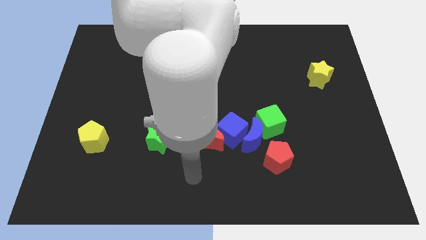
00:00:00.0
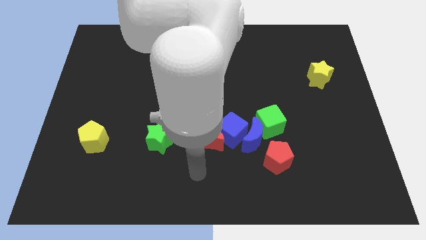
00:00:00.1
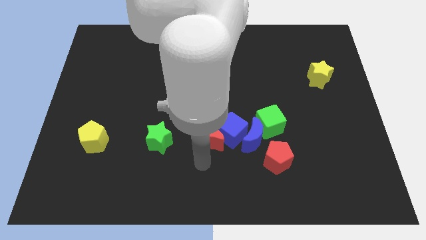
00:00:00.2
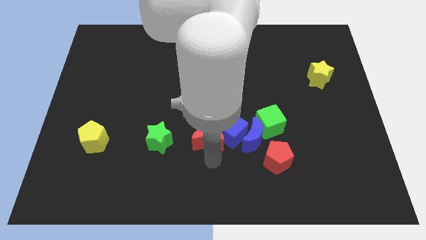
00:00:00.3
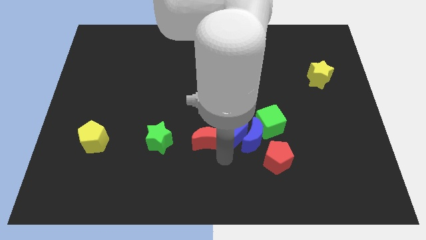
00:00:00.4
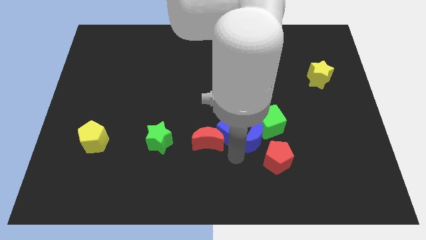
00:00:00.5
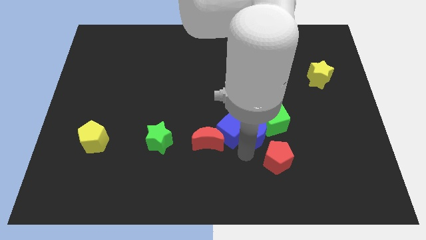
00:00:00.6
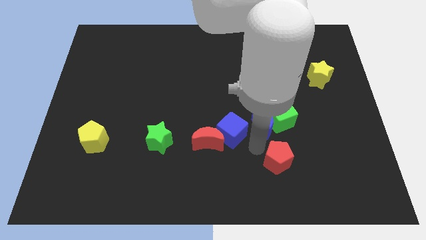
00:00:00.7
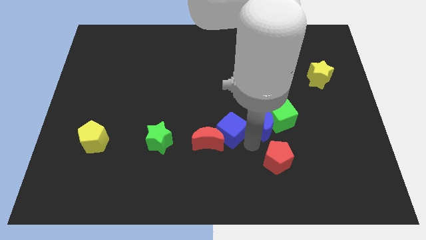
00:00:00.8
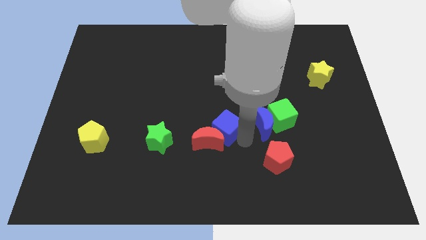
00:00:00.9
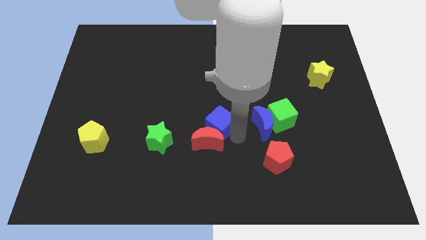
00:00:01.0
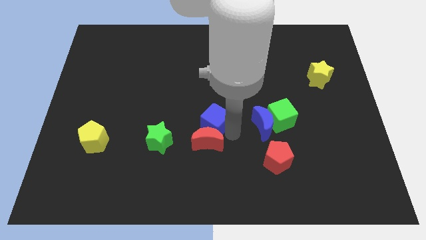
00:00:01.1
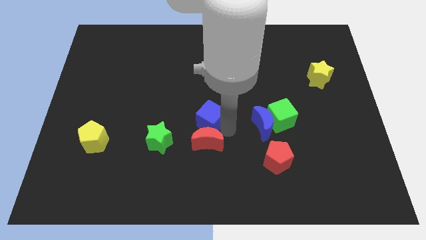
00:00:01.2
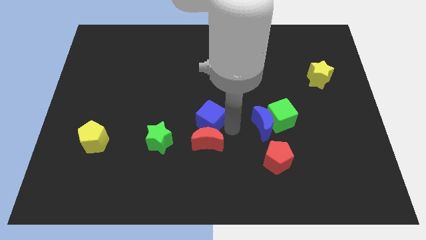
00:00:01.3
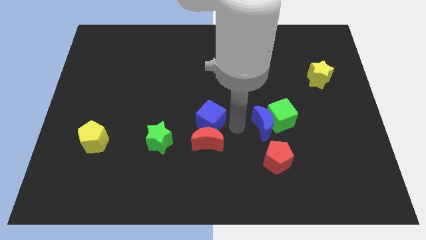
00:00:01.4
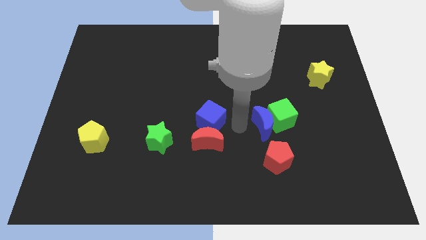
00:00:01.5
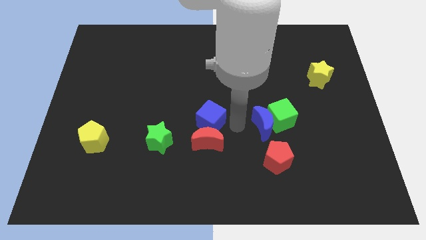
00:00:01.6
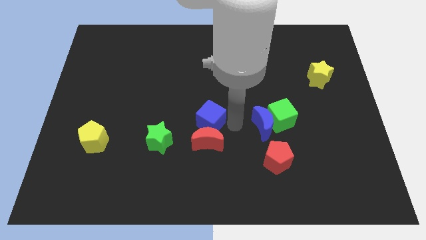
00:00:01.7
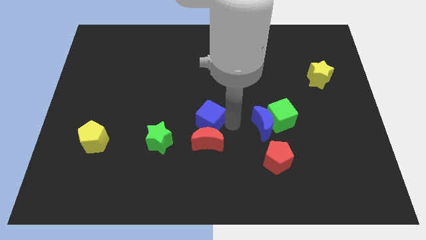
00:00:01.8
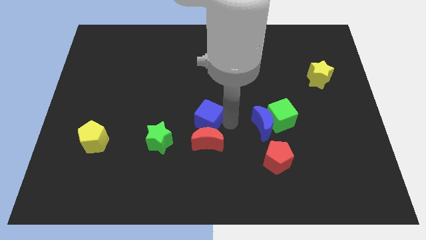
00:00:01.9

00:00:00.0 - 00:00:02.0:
separate the blue cube from the group of blocks

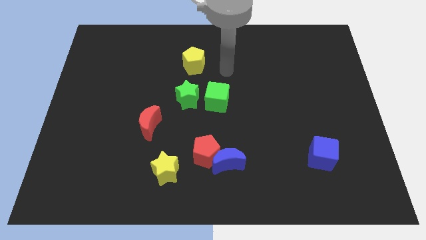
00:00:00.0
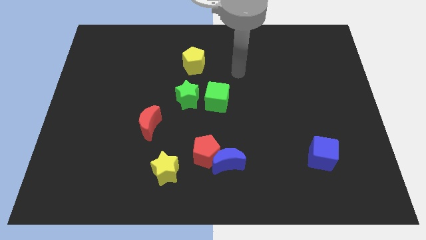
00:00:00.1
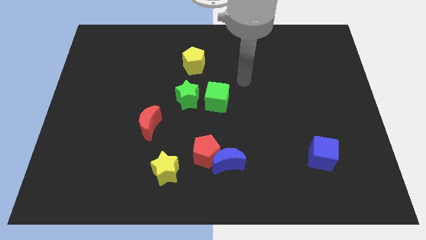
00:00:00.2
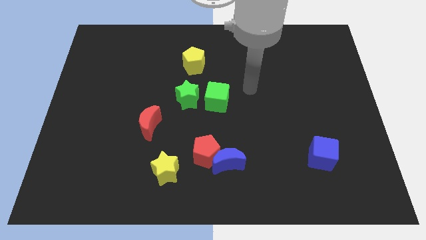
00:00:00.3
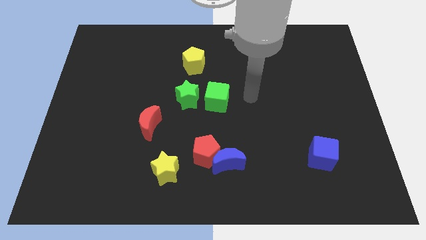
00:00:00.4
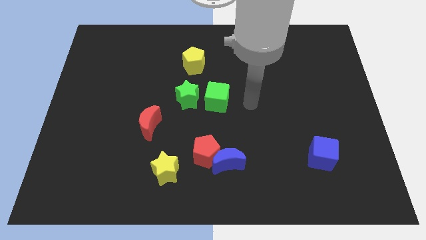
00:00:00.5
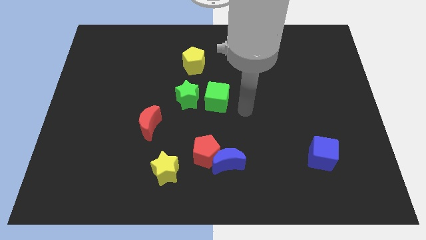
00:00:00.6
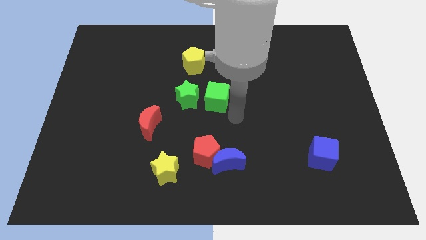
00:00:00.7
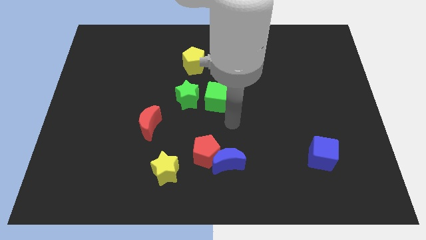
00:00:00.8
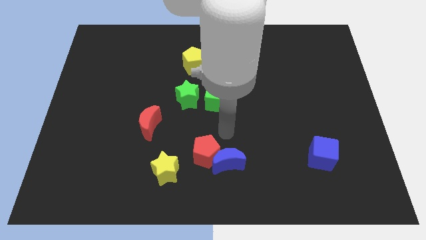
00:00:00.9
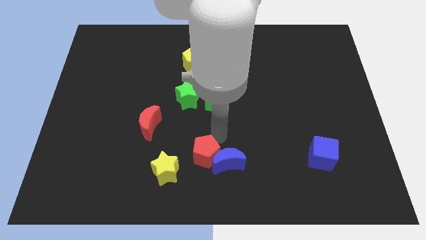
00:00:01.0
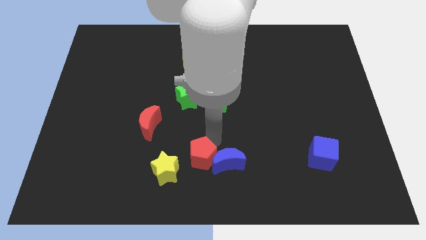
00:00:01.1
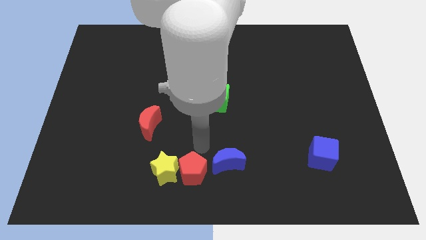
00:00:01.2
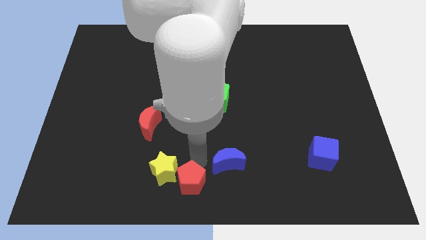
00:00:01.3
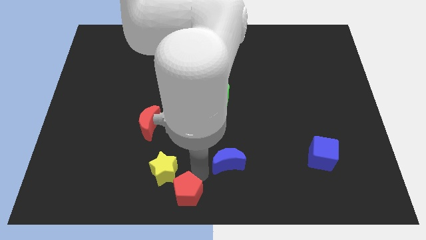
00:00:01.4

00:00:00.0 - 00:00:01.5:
pull the blue moon apart from the red pentagon

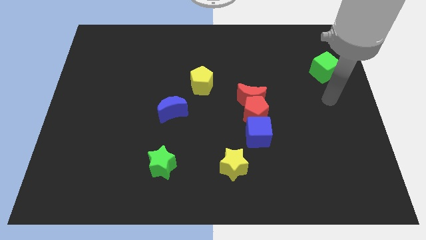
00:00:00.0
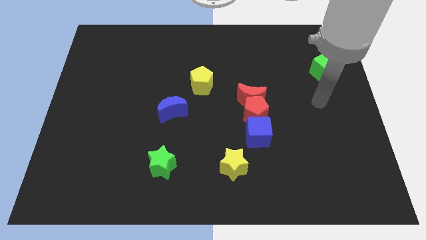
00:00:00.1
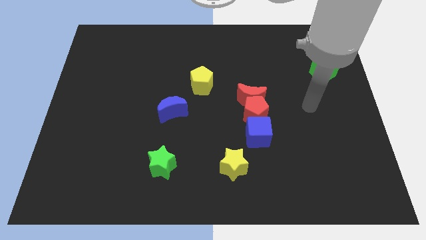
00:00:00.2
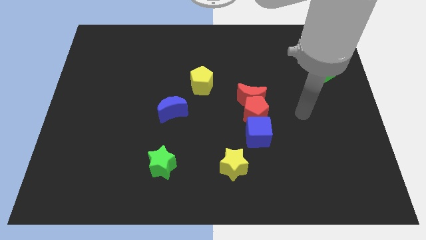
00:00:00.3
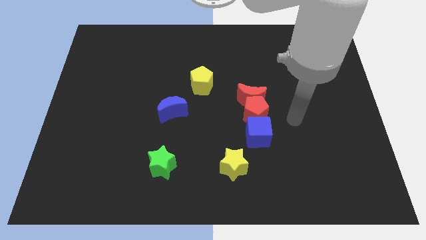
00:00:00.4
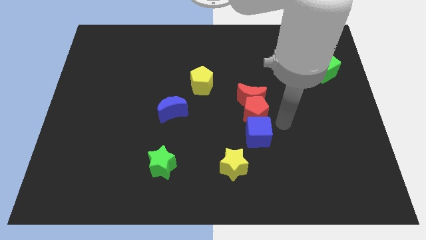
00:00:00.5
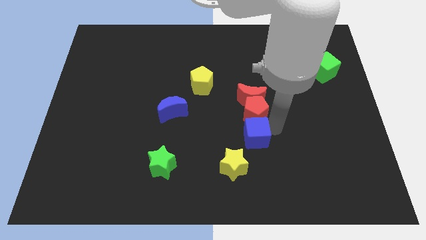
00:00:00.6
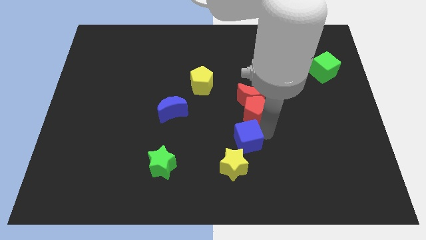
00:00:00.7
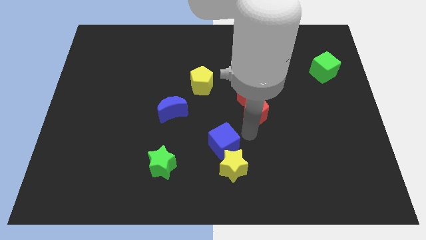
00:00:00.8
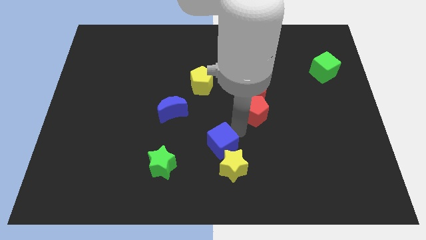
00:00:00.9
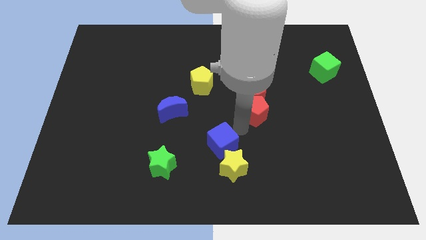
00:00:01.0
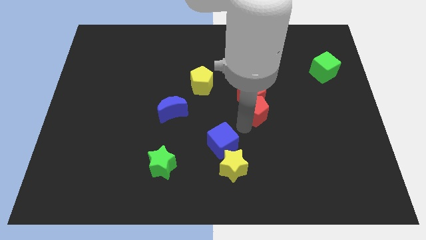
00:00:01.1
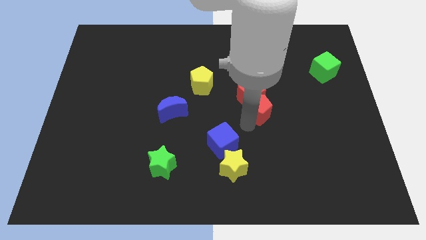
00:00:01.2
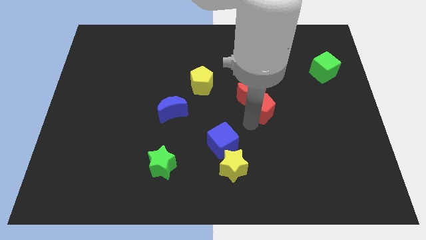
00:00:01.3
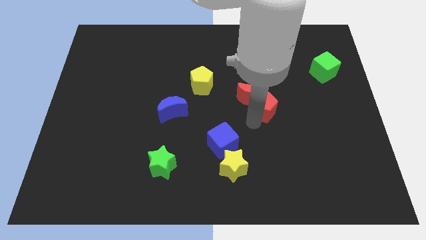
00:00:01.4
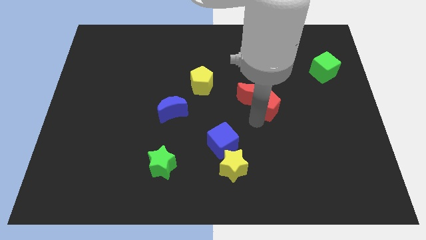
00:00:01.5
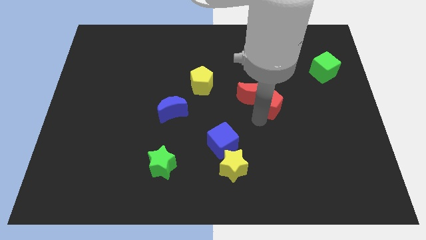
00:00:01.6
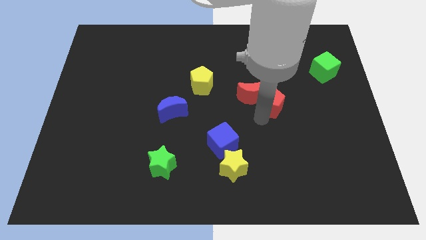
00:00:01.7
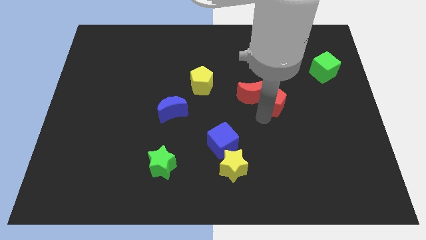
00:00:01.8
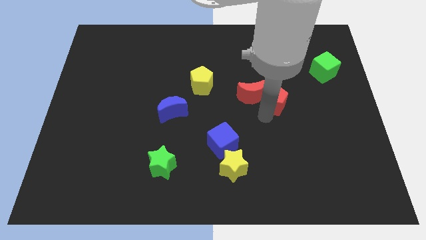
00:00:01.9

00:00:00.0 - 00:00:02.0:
separate the red pentagon from the red moon and blue cube

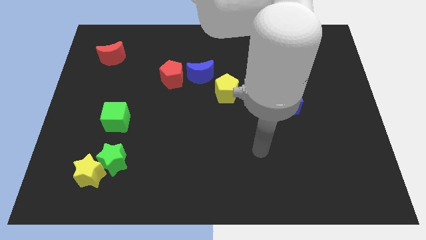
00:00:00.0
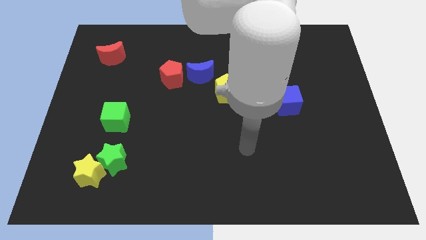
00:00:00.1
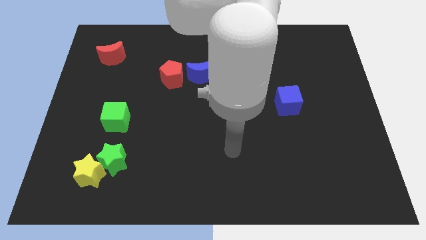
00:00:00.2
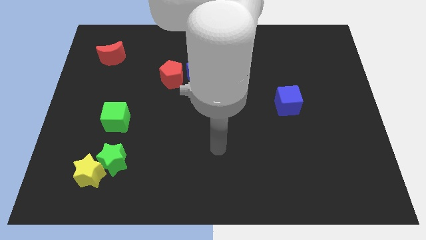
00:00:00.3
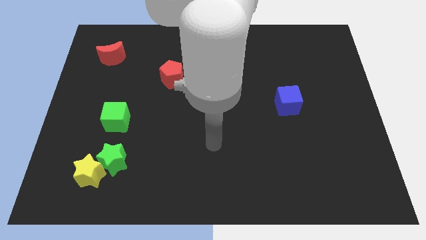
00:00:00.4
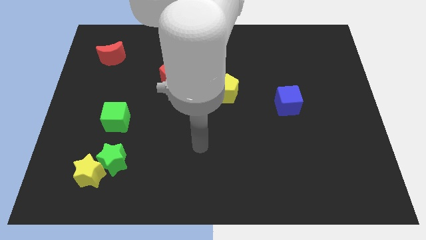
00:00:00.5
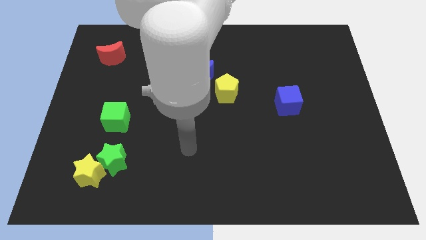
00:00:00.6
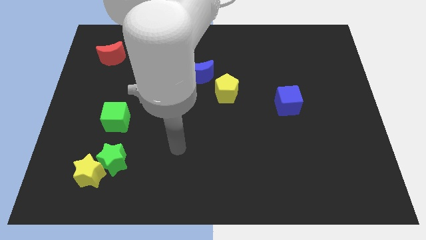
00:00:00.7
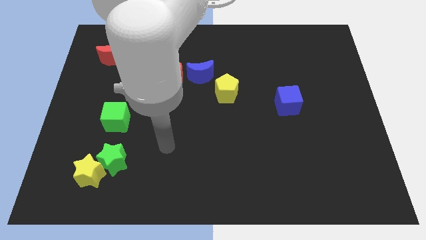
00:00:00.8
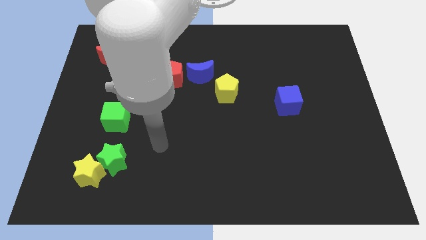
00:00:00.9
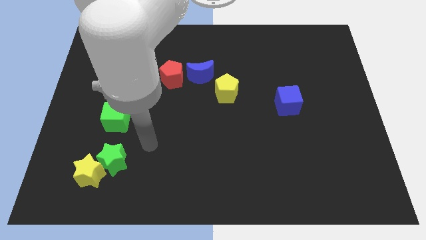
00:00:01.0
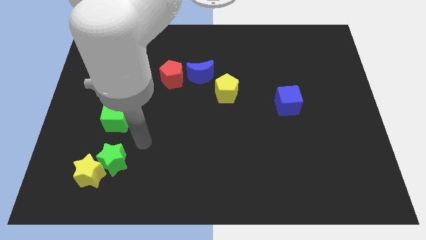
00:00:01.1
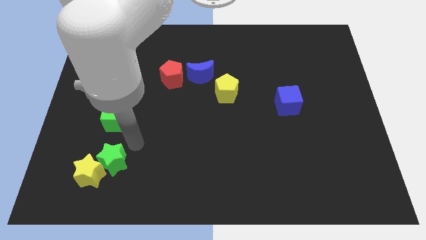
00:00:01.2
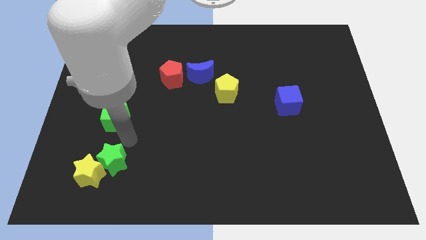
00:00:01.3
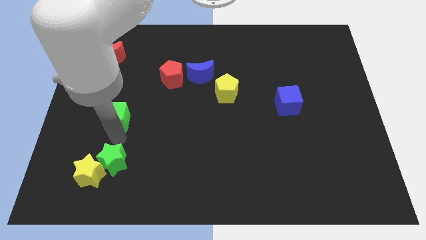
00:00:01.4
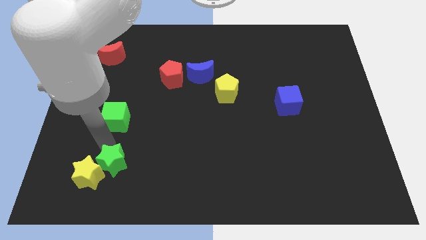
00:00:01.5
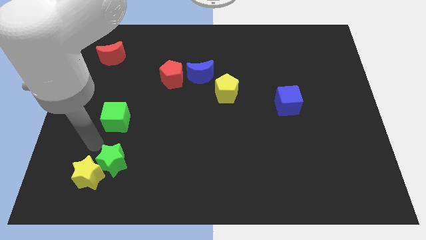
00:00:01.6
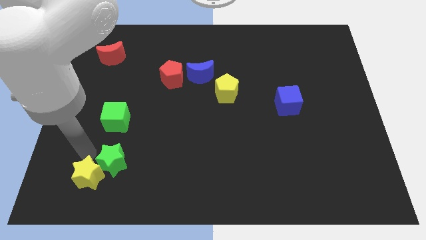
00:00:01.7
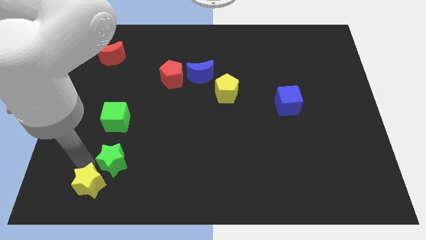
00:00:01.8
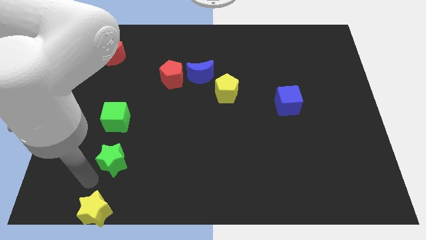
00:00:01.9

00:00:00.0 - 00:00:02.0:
move the green star away from the yellow star

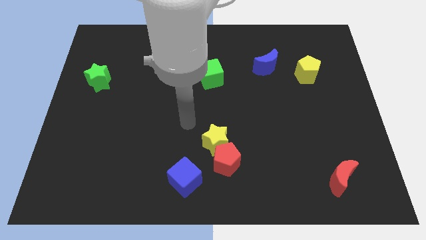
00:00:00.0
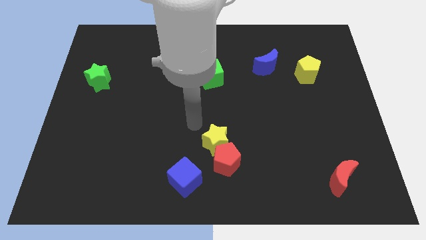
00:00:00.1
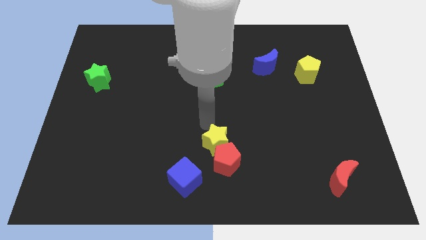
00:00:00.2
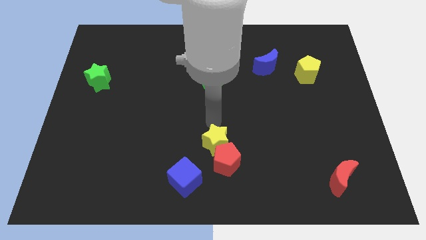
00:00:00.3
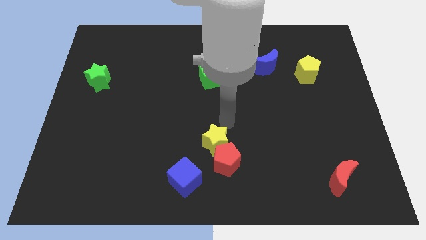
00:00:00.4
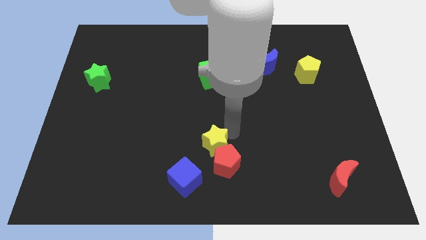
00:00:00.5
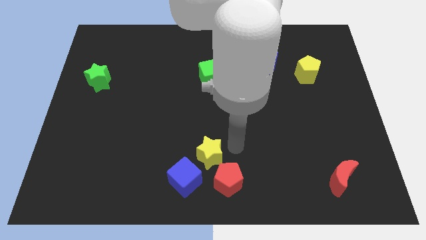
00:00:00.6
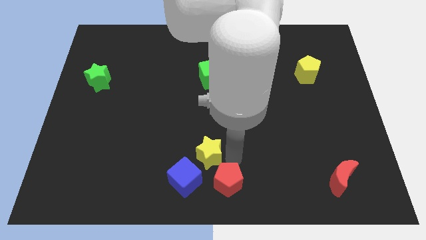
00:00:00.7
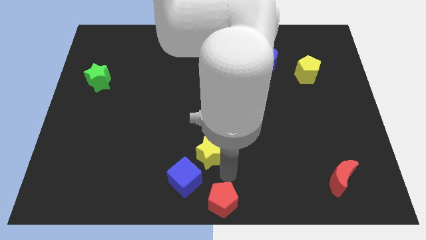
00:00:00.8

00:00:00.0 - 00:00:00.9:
pull the yellow star apart from the red pentagon

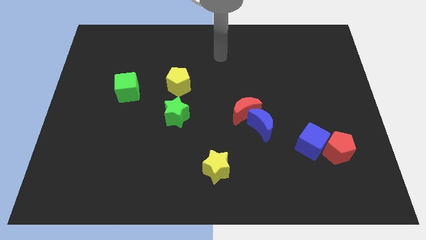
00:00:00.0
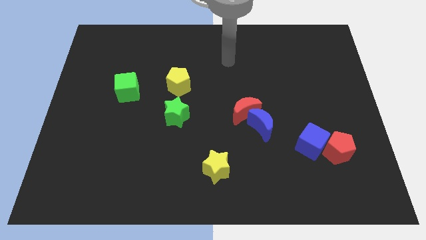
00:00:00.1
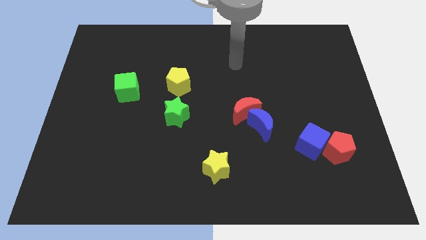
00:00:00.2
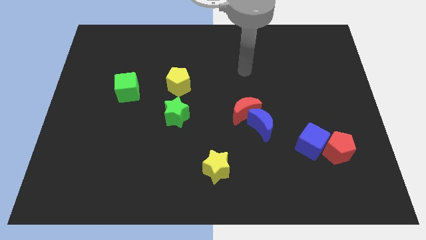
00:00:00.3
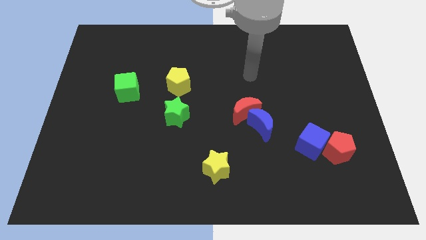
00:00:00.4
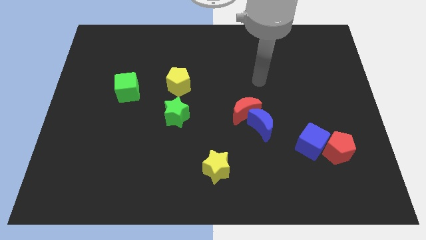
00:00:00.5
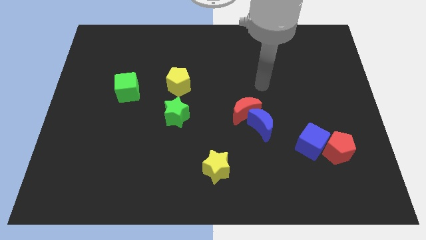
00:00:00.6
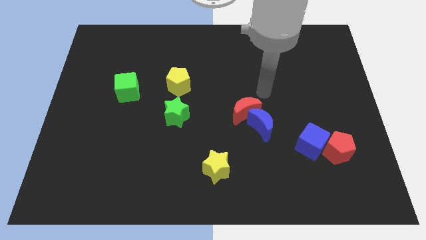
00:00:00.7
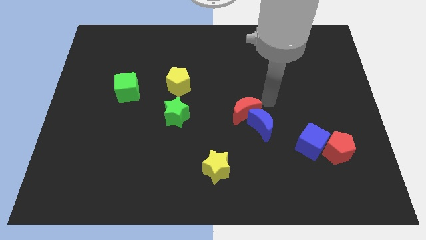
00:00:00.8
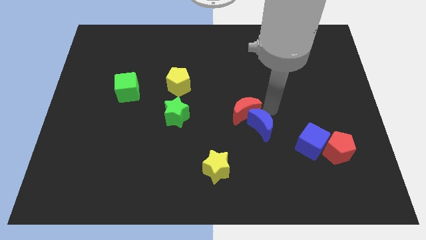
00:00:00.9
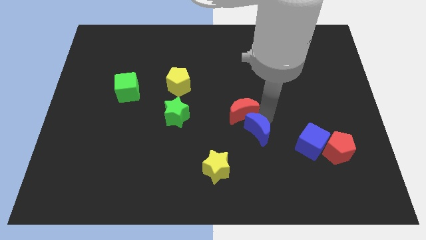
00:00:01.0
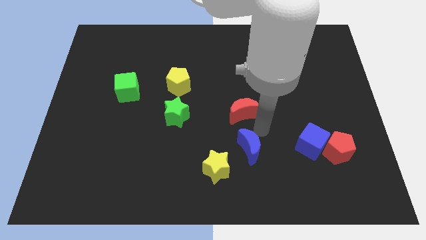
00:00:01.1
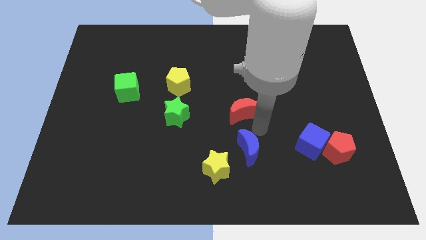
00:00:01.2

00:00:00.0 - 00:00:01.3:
move the red moon away from the blue moon
